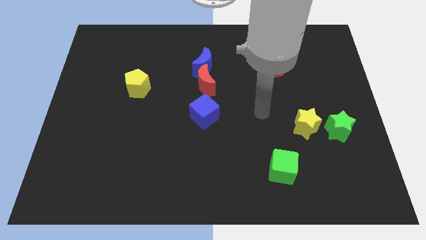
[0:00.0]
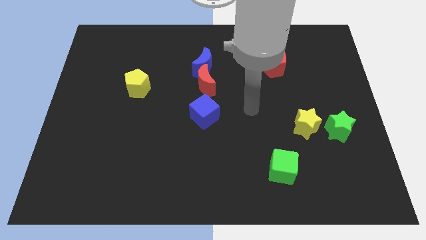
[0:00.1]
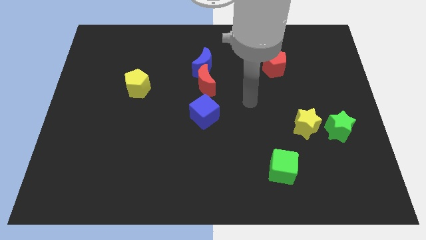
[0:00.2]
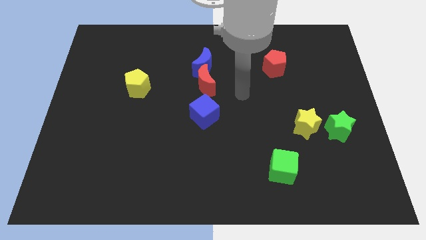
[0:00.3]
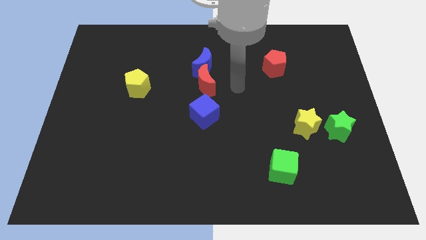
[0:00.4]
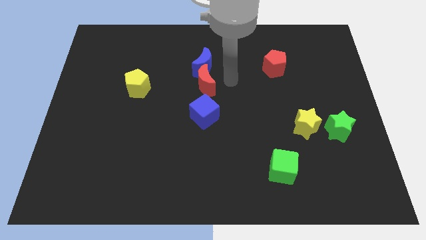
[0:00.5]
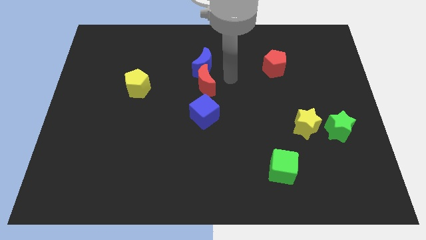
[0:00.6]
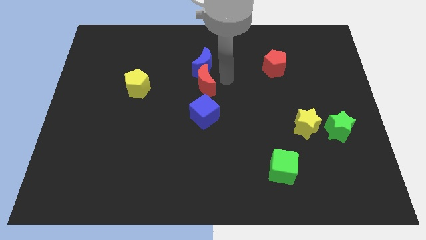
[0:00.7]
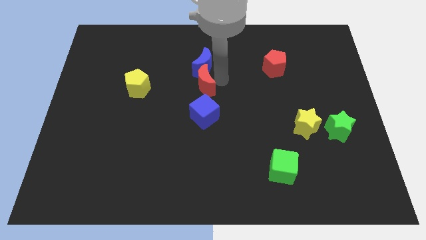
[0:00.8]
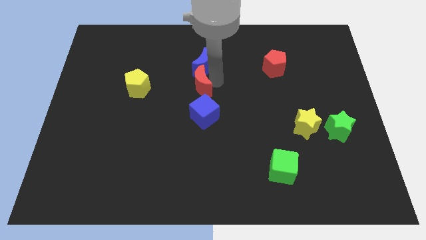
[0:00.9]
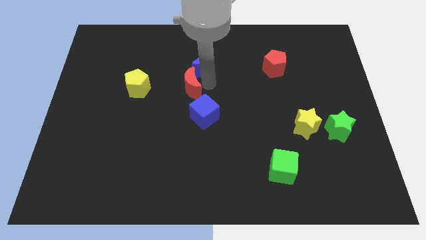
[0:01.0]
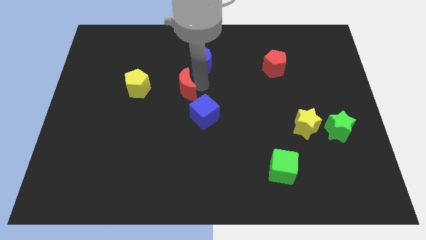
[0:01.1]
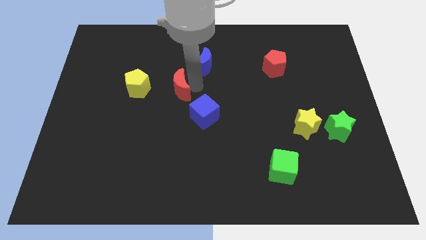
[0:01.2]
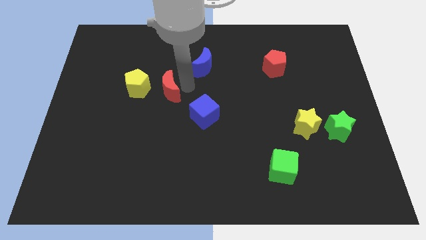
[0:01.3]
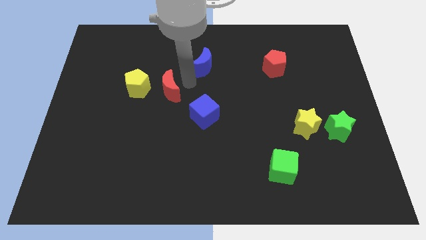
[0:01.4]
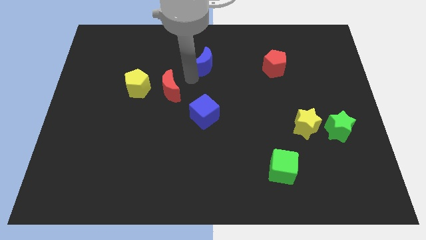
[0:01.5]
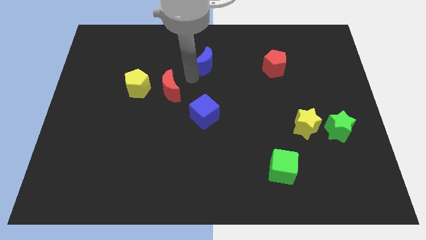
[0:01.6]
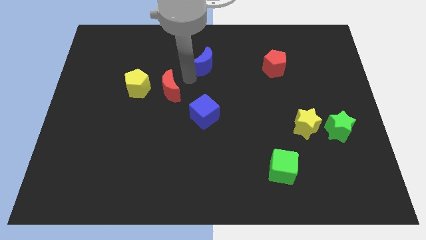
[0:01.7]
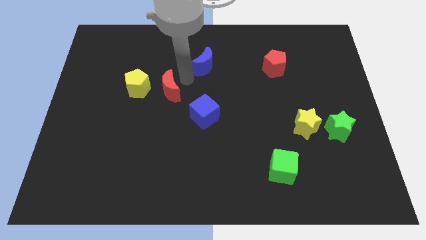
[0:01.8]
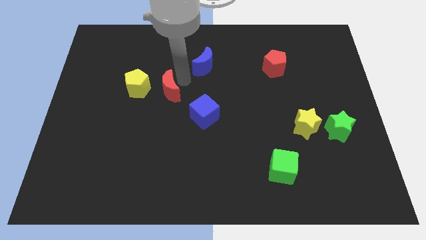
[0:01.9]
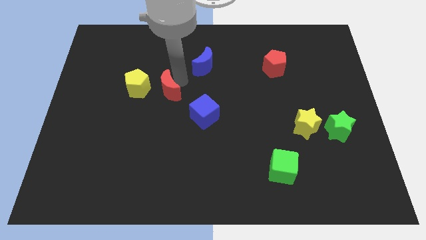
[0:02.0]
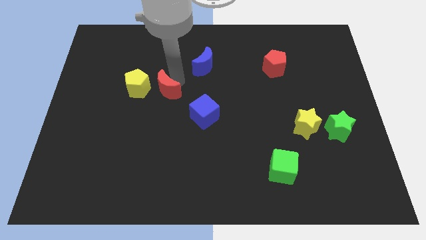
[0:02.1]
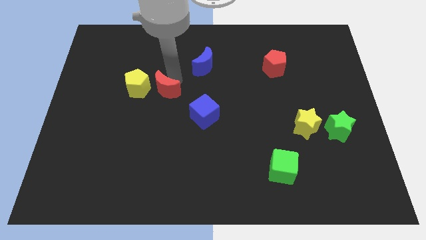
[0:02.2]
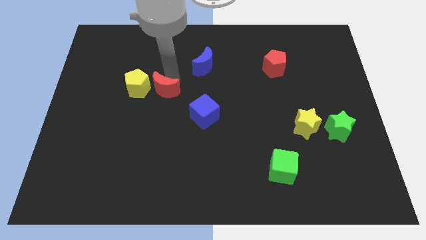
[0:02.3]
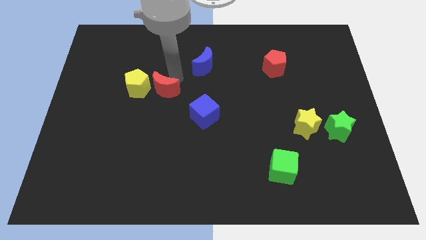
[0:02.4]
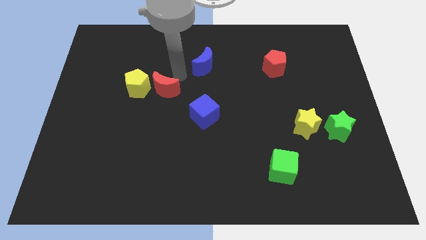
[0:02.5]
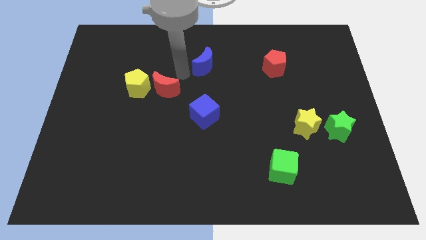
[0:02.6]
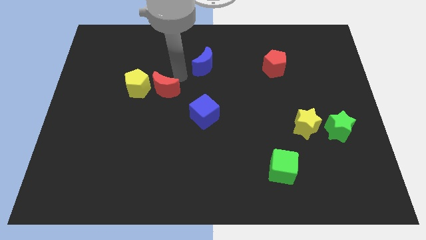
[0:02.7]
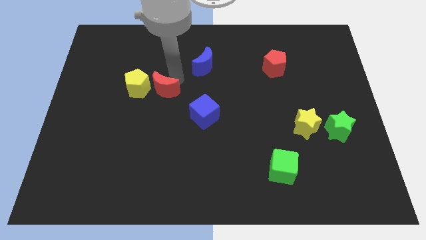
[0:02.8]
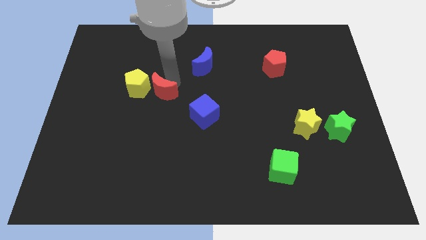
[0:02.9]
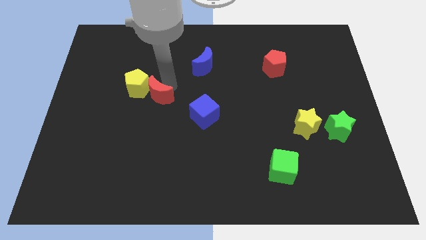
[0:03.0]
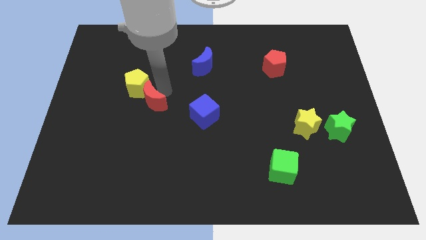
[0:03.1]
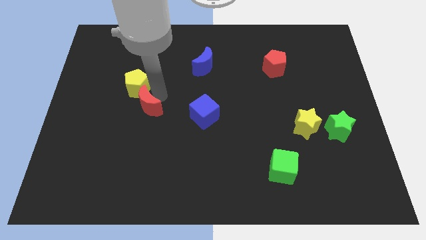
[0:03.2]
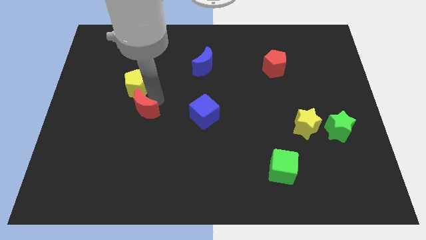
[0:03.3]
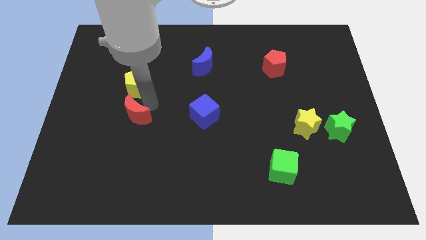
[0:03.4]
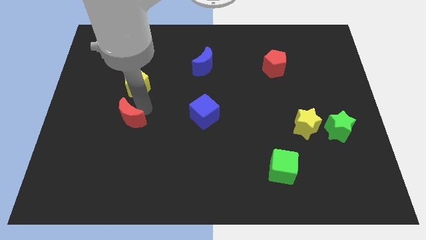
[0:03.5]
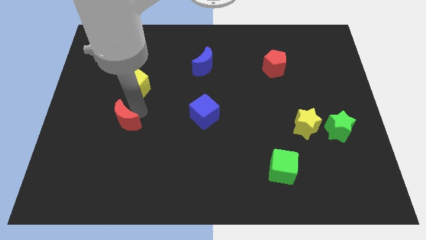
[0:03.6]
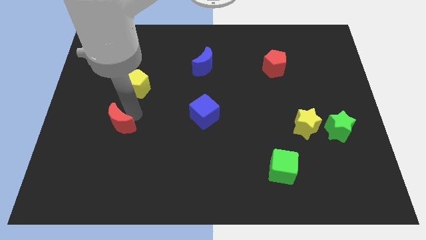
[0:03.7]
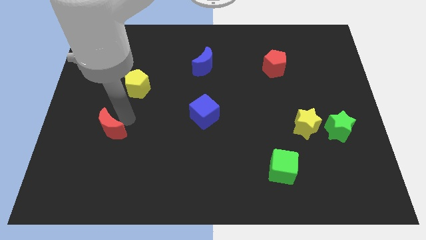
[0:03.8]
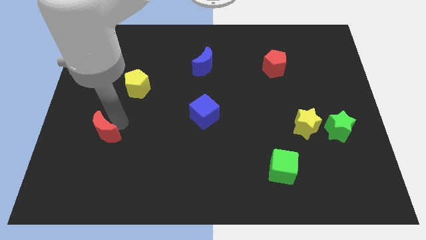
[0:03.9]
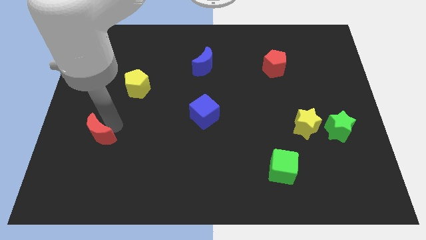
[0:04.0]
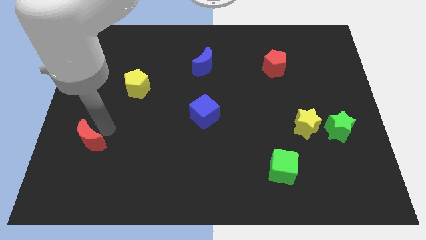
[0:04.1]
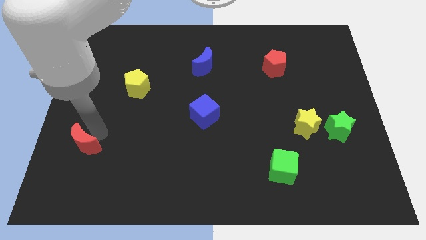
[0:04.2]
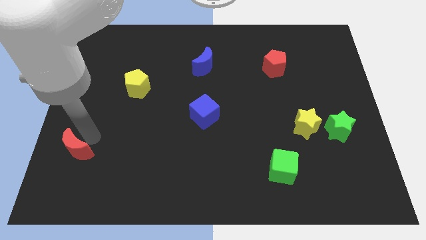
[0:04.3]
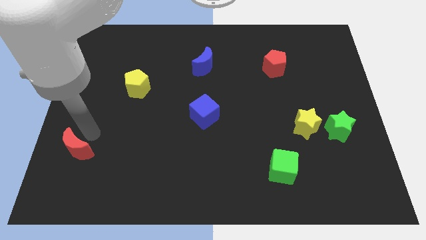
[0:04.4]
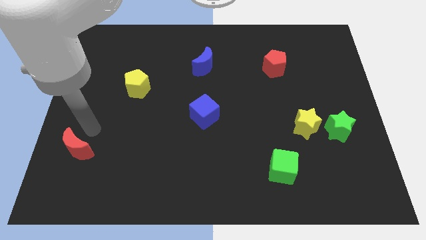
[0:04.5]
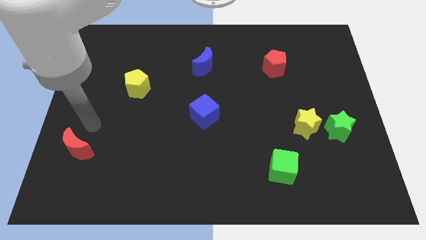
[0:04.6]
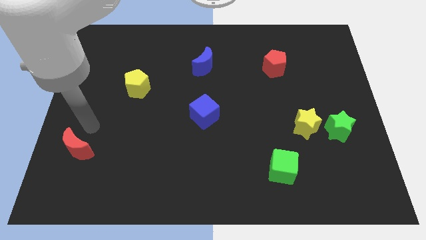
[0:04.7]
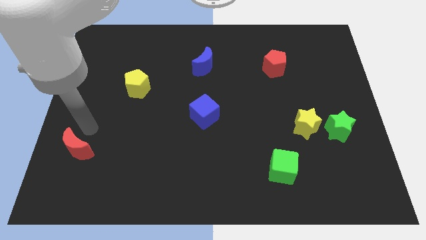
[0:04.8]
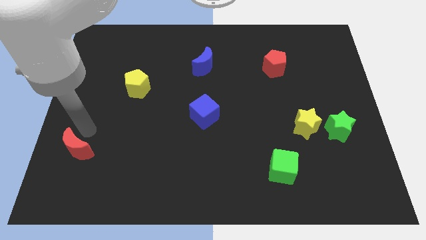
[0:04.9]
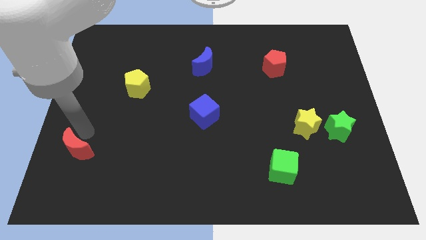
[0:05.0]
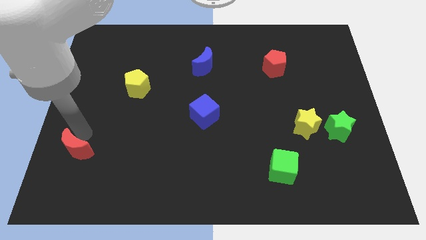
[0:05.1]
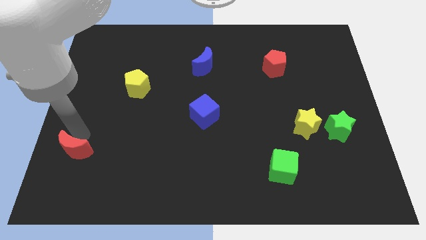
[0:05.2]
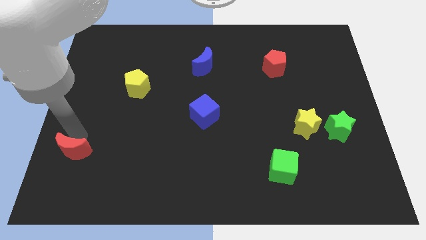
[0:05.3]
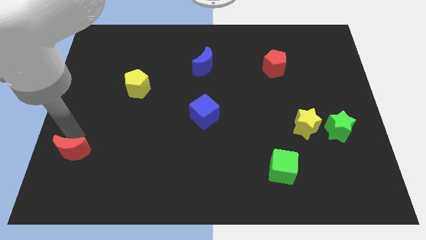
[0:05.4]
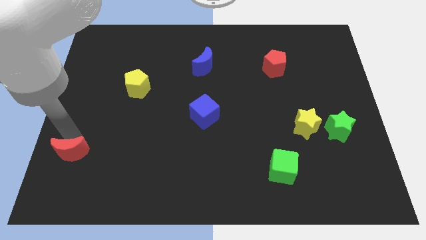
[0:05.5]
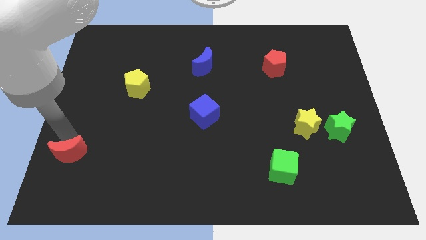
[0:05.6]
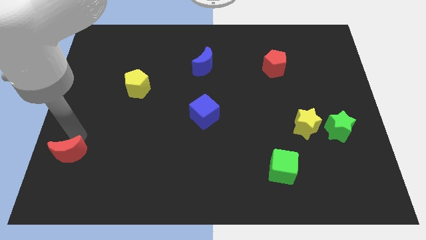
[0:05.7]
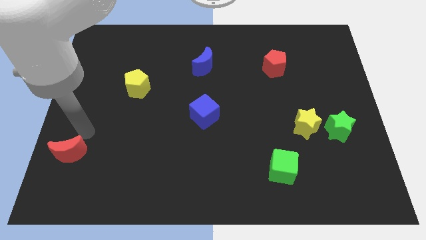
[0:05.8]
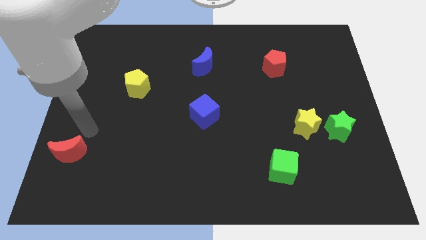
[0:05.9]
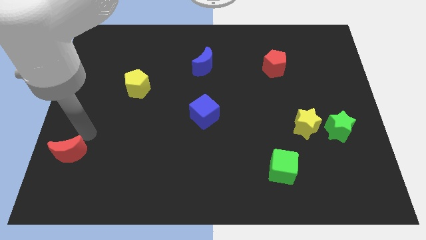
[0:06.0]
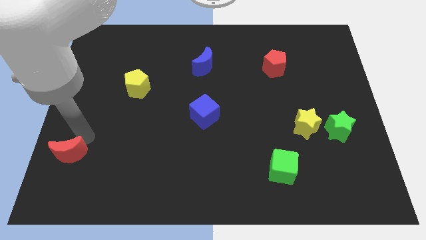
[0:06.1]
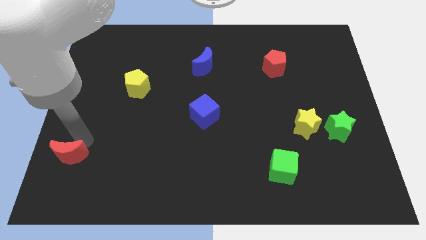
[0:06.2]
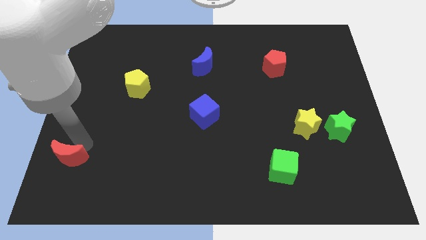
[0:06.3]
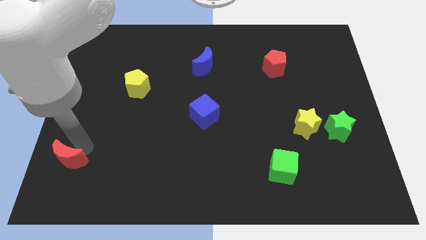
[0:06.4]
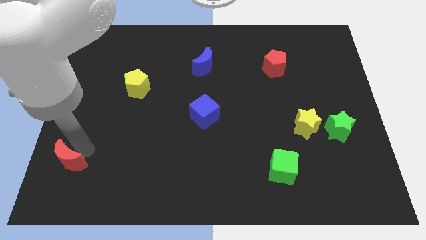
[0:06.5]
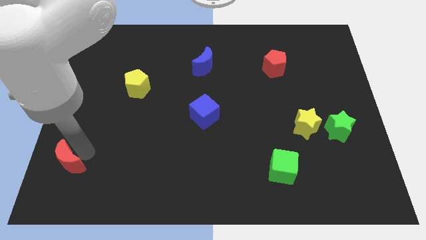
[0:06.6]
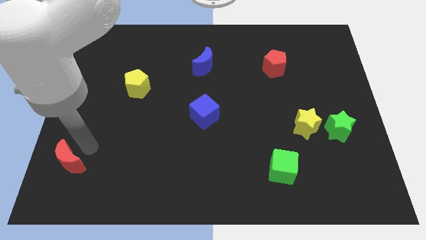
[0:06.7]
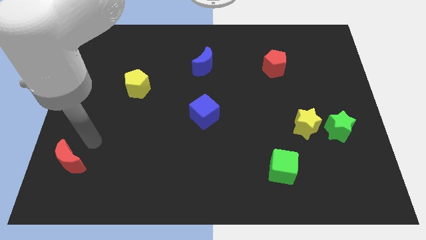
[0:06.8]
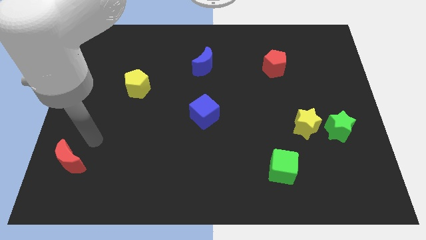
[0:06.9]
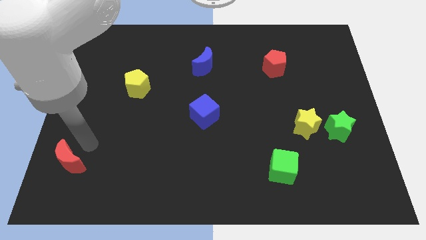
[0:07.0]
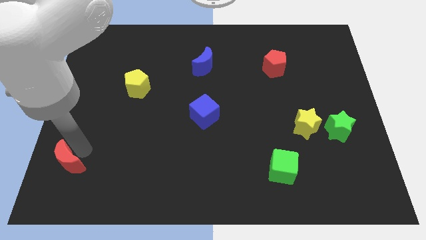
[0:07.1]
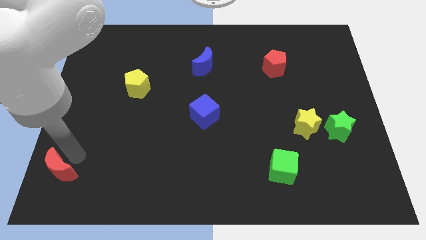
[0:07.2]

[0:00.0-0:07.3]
slide the red moon to the bottom left
